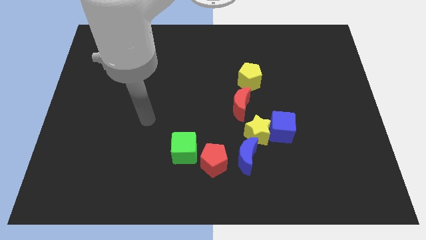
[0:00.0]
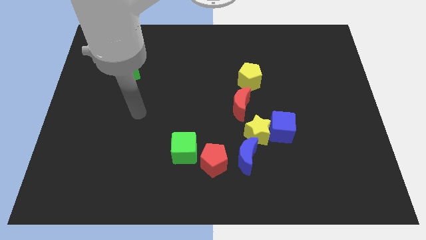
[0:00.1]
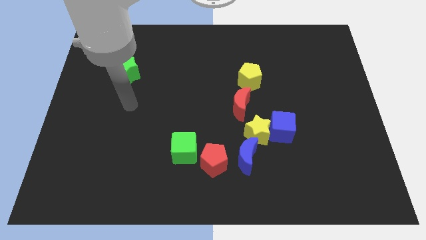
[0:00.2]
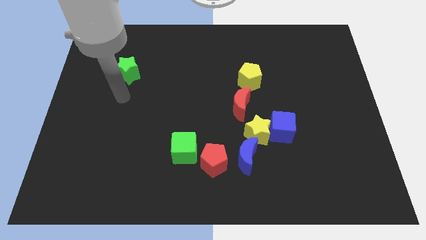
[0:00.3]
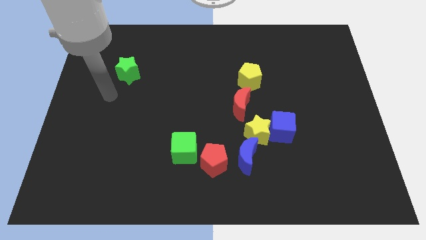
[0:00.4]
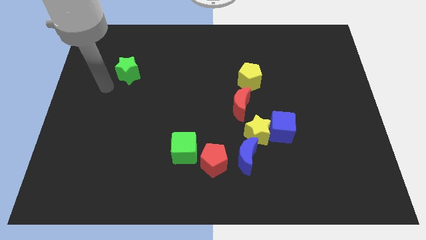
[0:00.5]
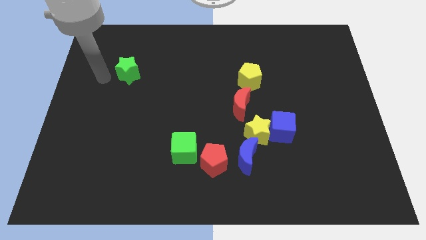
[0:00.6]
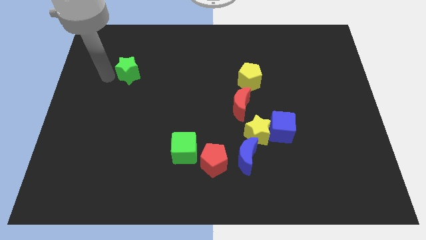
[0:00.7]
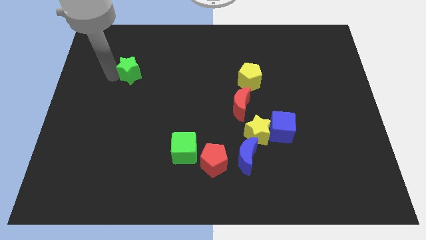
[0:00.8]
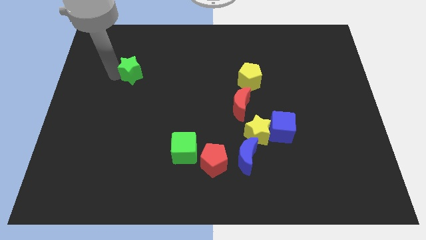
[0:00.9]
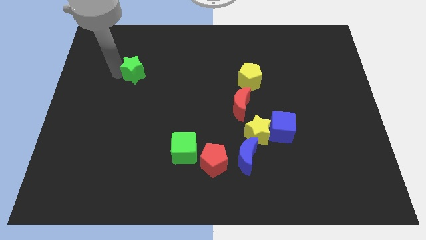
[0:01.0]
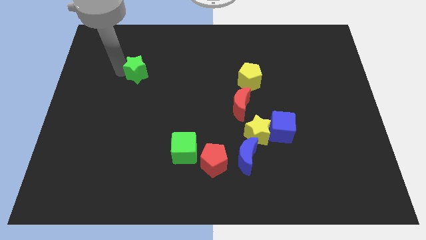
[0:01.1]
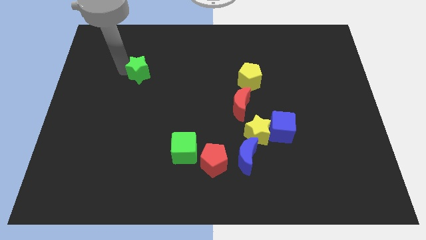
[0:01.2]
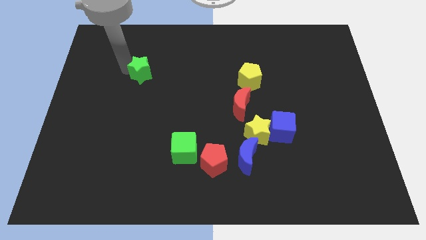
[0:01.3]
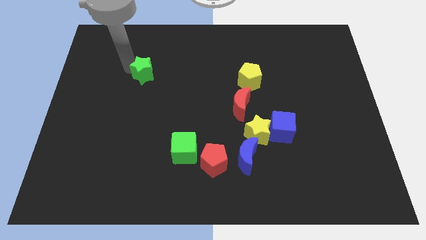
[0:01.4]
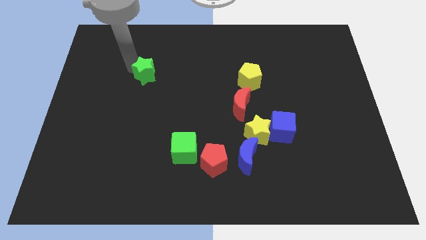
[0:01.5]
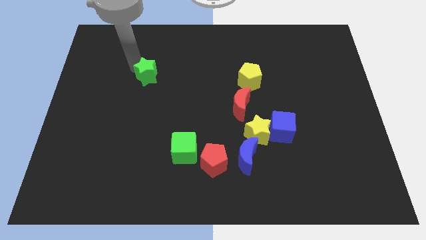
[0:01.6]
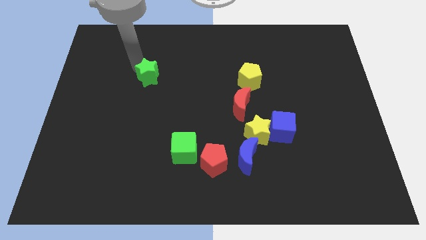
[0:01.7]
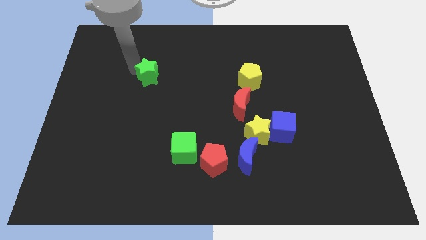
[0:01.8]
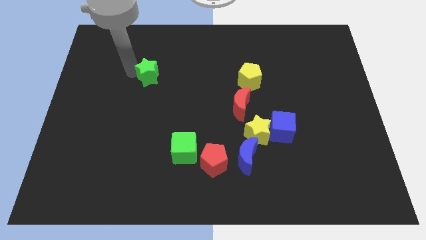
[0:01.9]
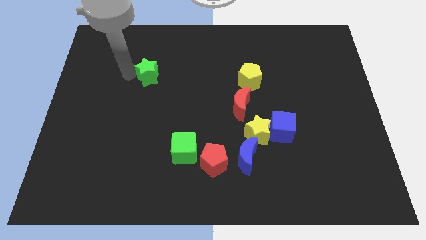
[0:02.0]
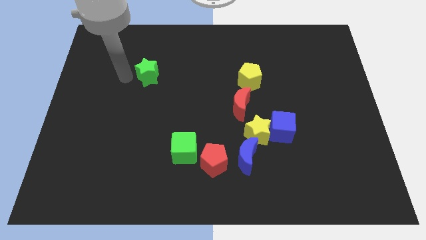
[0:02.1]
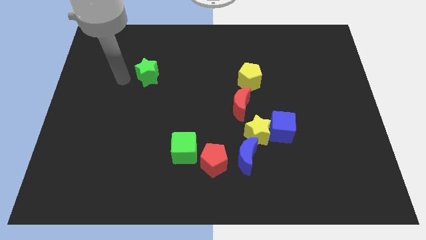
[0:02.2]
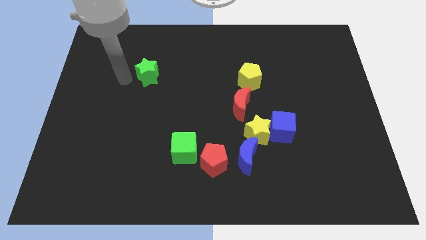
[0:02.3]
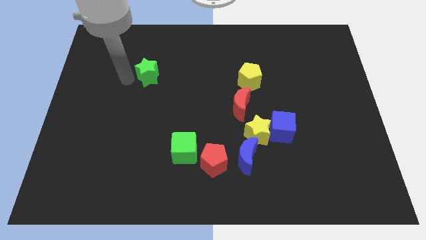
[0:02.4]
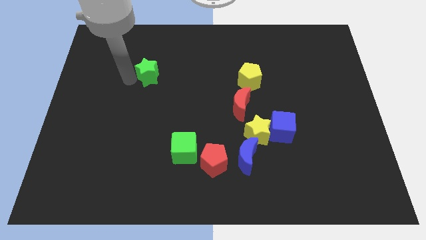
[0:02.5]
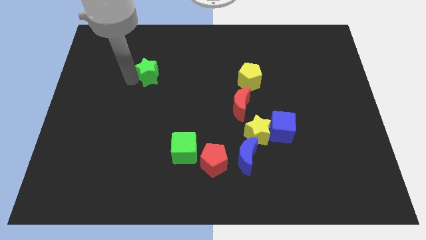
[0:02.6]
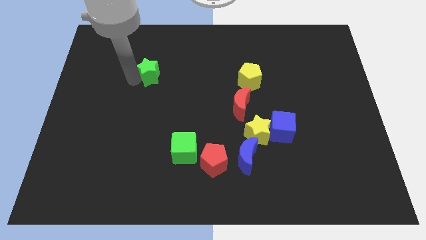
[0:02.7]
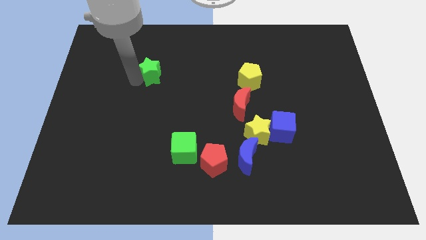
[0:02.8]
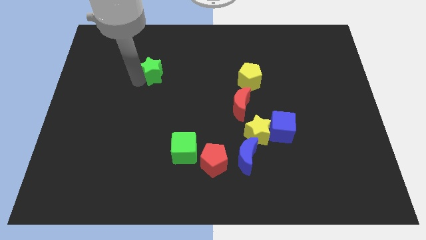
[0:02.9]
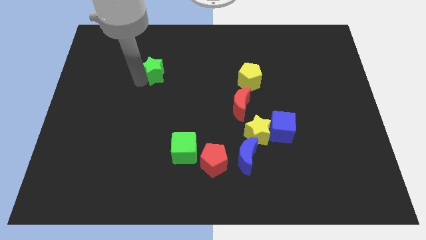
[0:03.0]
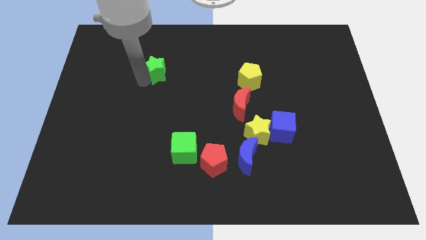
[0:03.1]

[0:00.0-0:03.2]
slightly slide the green star right

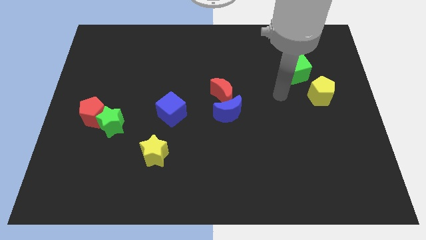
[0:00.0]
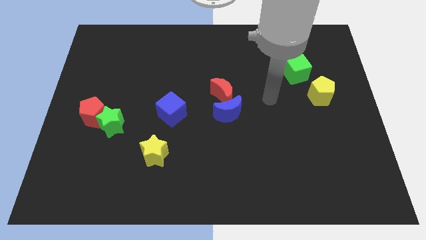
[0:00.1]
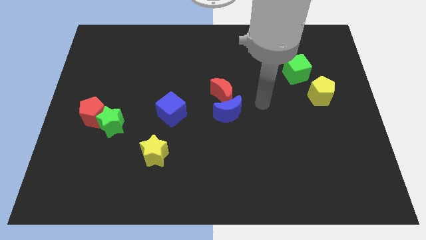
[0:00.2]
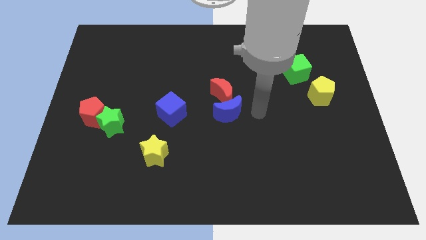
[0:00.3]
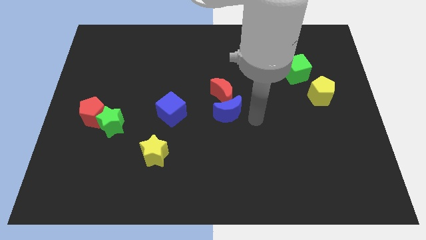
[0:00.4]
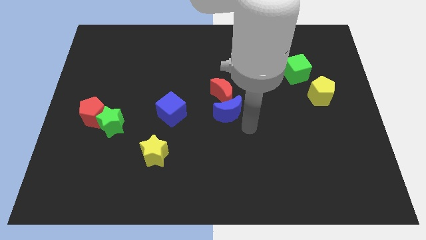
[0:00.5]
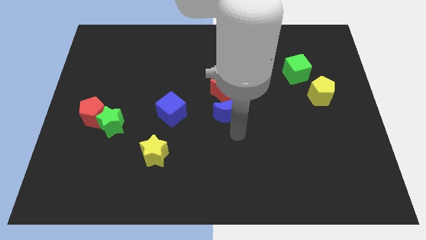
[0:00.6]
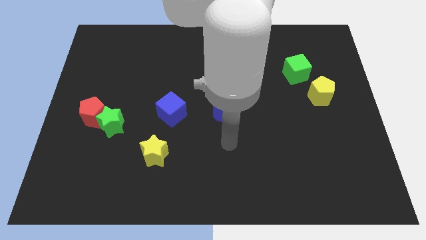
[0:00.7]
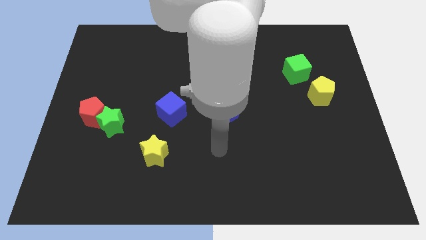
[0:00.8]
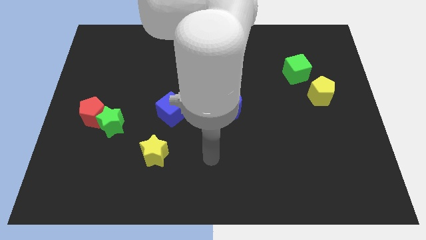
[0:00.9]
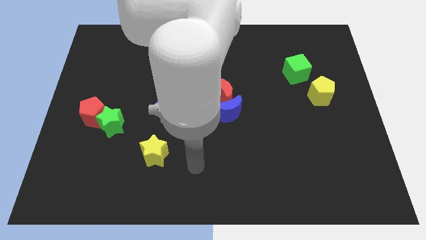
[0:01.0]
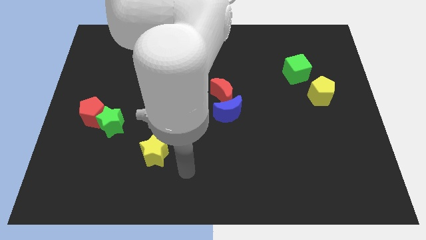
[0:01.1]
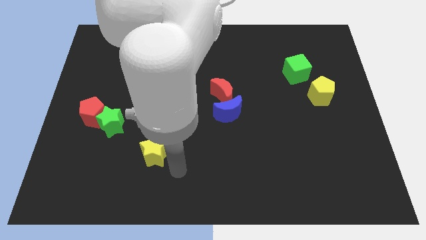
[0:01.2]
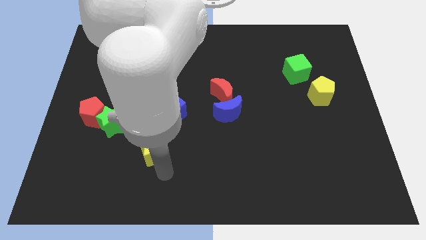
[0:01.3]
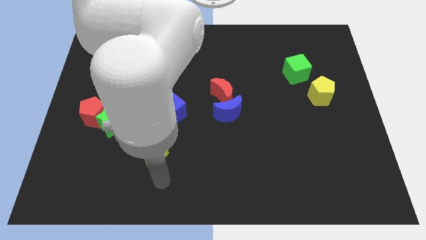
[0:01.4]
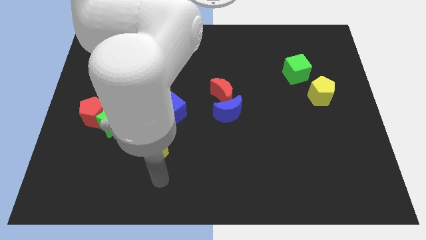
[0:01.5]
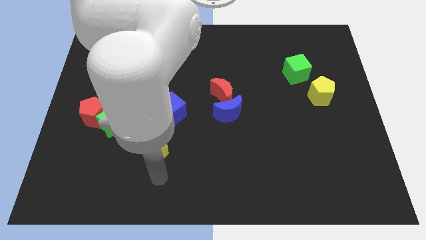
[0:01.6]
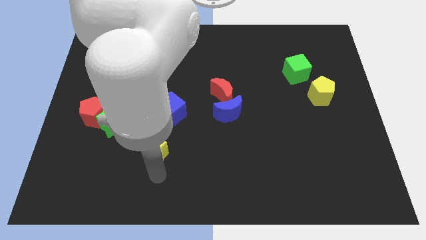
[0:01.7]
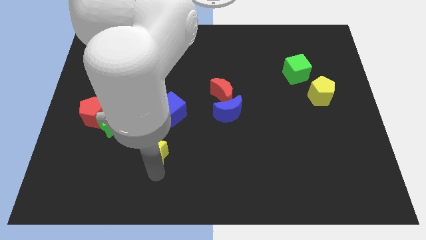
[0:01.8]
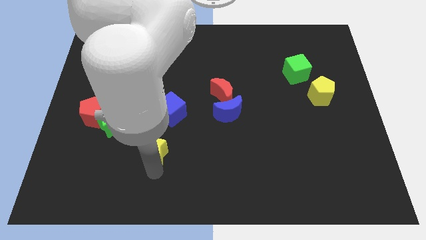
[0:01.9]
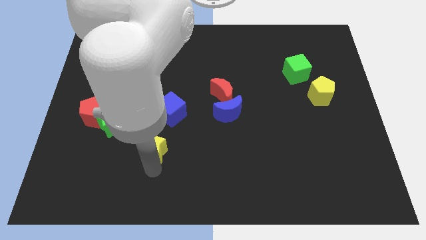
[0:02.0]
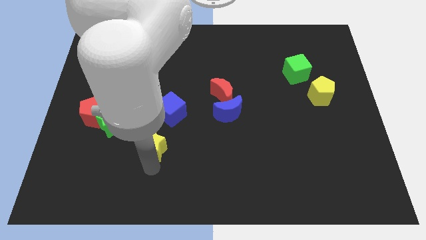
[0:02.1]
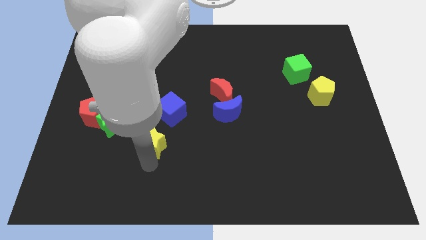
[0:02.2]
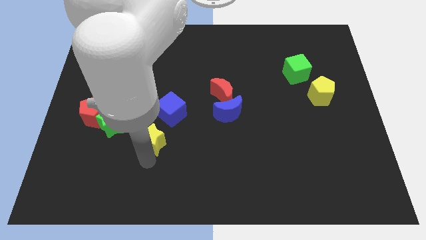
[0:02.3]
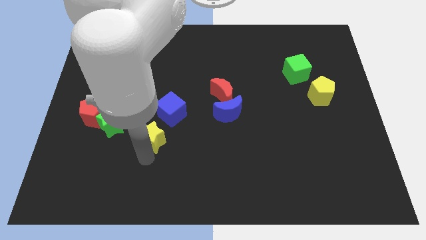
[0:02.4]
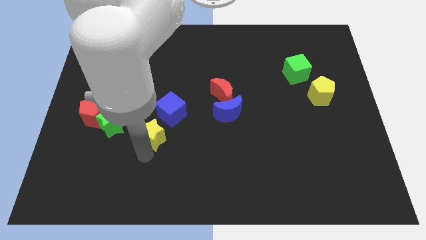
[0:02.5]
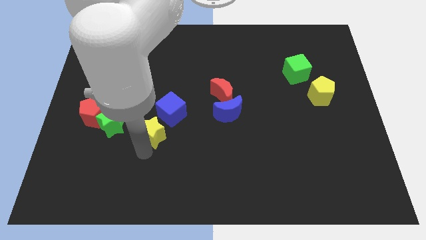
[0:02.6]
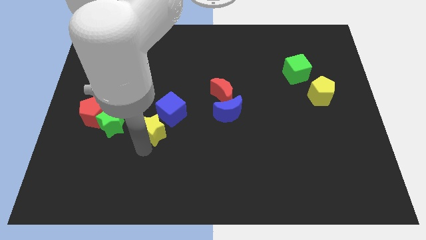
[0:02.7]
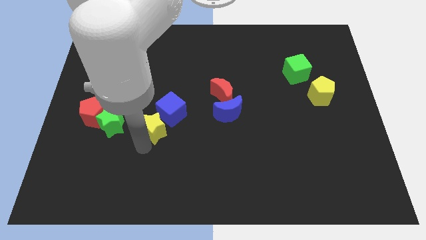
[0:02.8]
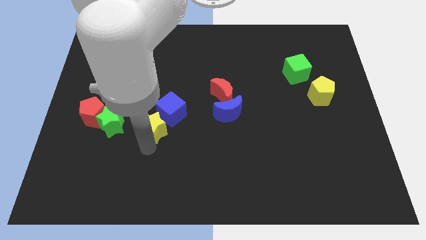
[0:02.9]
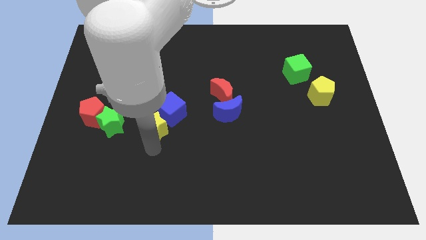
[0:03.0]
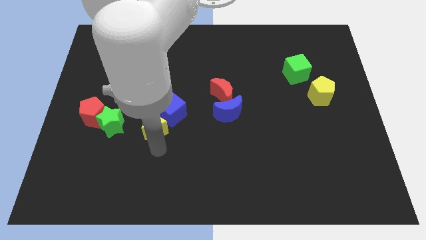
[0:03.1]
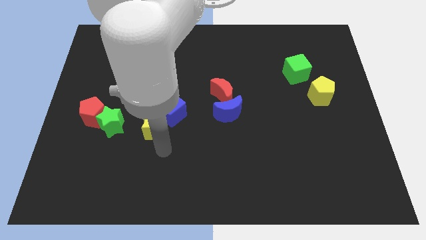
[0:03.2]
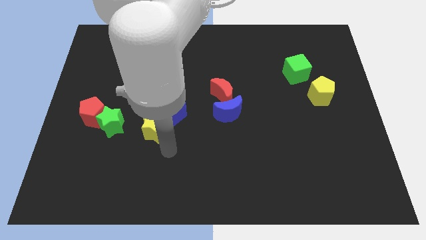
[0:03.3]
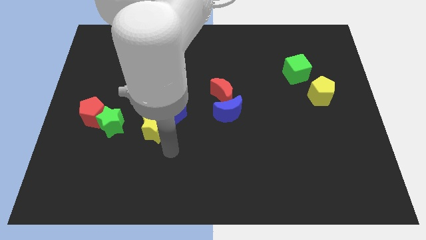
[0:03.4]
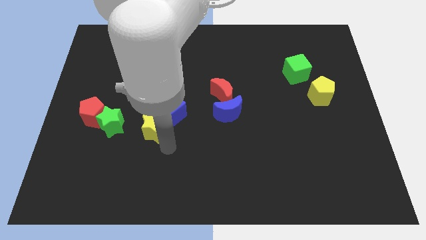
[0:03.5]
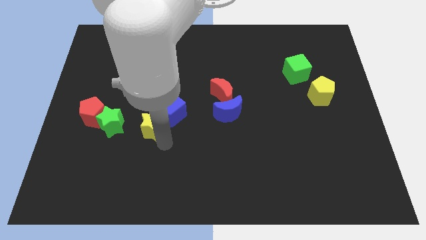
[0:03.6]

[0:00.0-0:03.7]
slightly slide the yellow star up

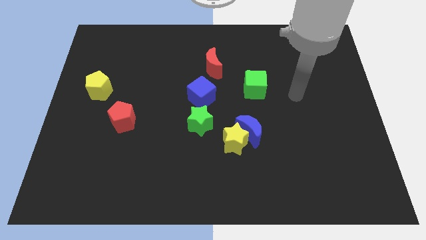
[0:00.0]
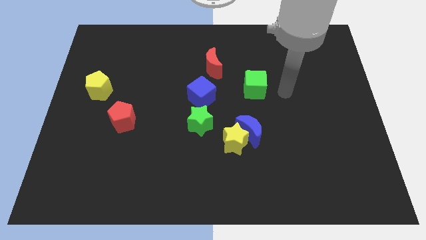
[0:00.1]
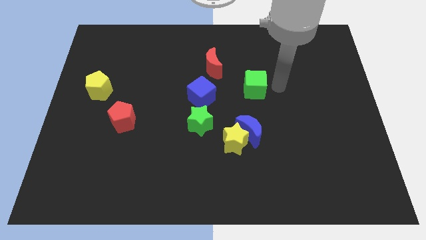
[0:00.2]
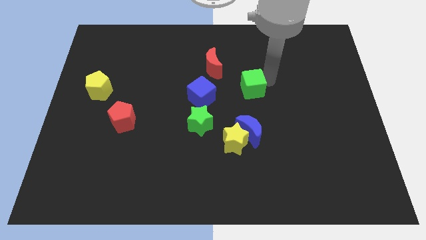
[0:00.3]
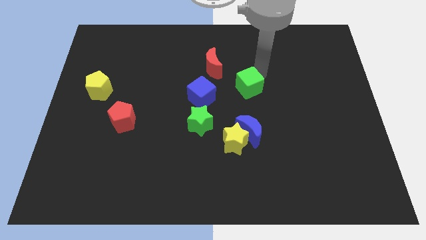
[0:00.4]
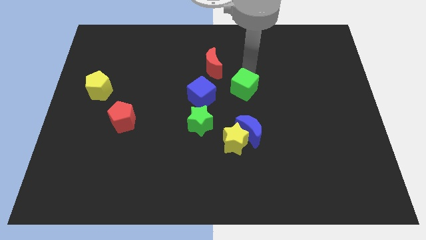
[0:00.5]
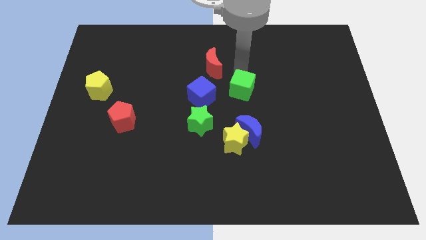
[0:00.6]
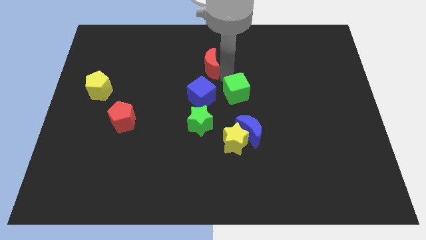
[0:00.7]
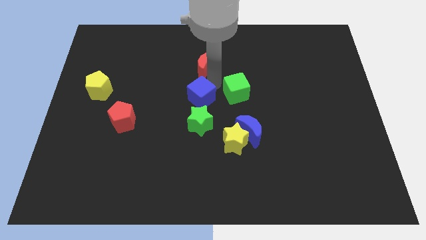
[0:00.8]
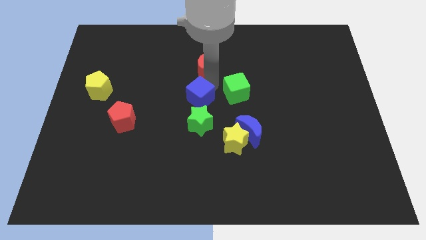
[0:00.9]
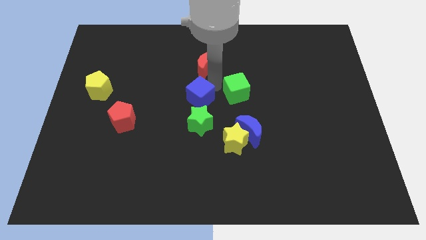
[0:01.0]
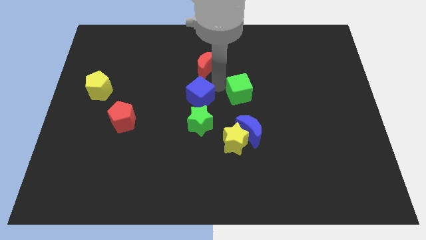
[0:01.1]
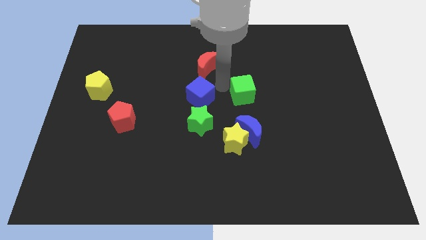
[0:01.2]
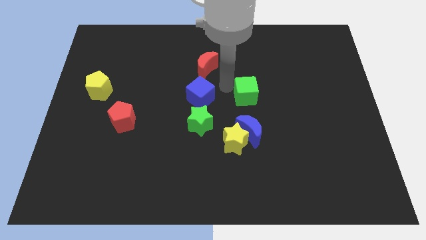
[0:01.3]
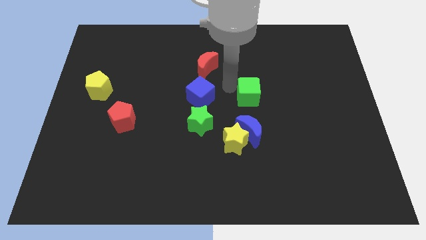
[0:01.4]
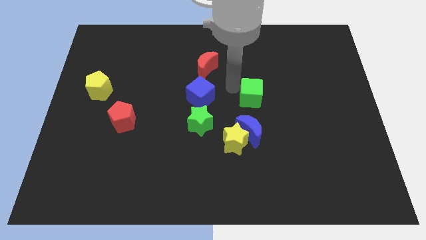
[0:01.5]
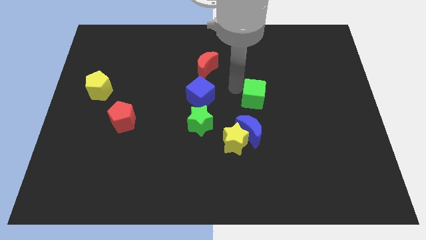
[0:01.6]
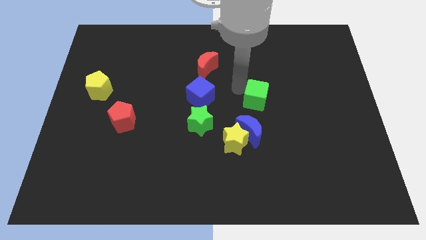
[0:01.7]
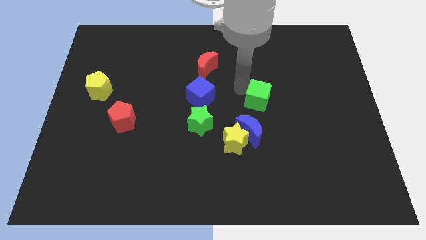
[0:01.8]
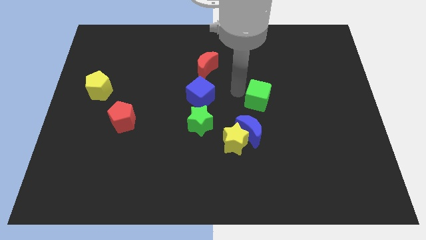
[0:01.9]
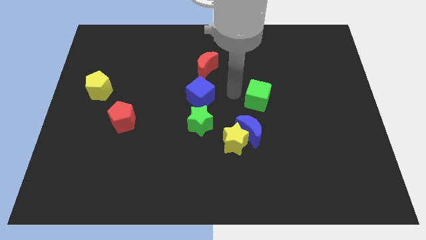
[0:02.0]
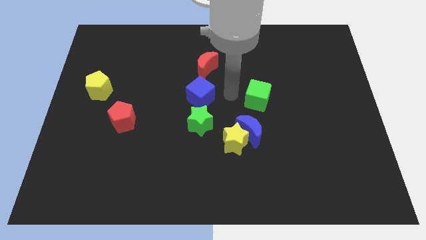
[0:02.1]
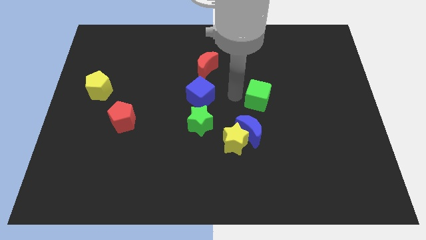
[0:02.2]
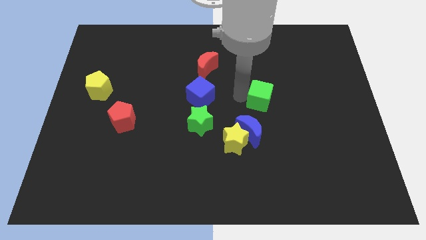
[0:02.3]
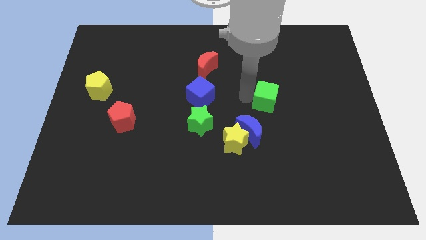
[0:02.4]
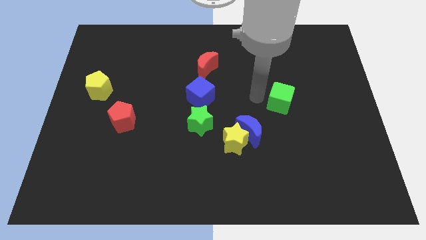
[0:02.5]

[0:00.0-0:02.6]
push the green cube downwards and then right somewhat
